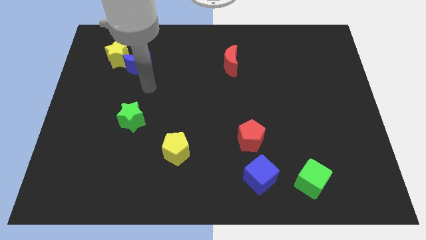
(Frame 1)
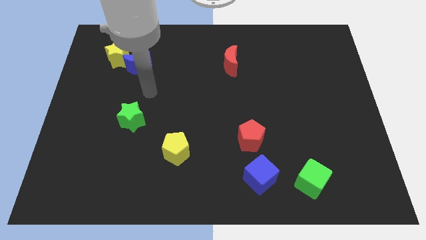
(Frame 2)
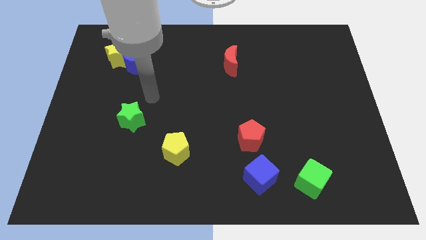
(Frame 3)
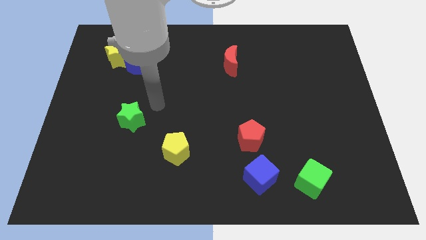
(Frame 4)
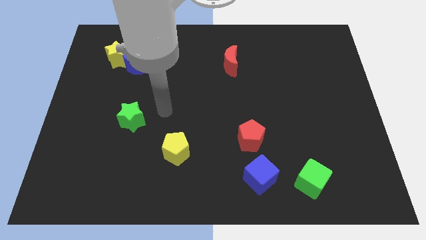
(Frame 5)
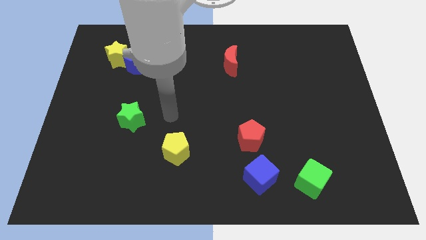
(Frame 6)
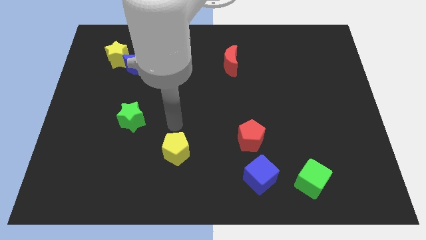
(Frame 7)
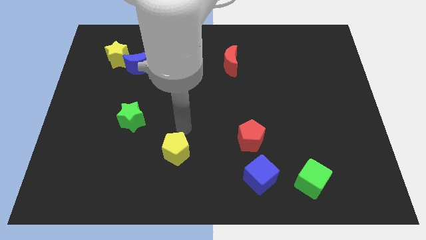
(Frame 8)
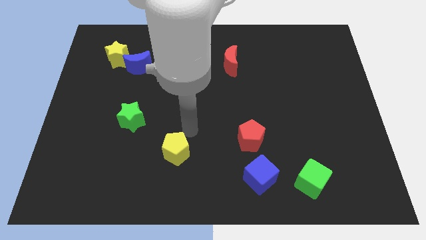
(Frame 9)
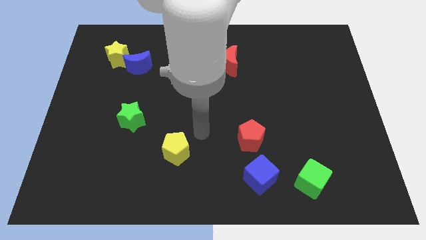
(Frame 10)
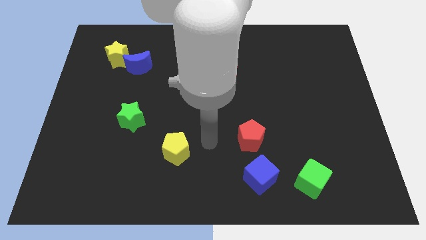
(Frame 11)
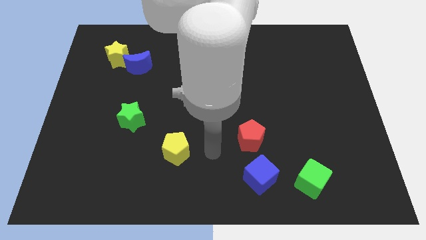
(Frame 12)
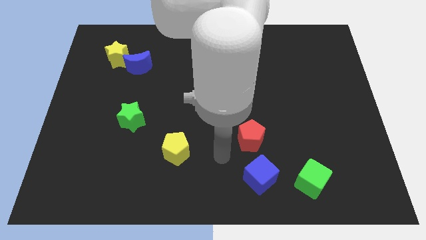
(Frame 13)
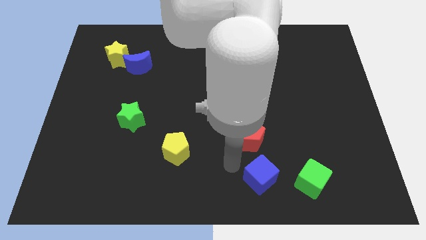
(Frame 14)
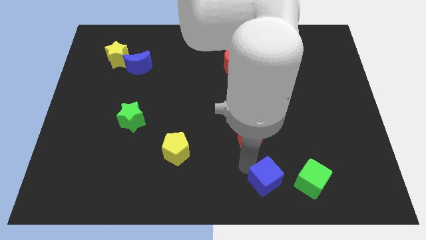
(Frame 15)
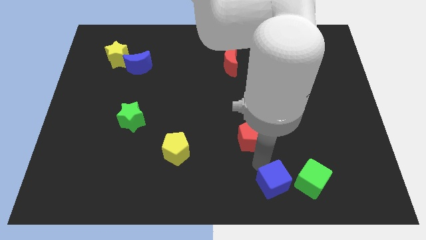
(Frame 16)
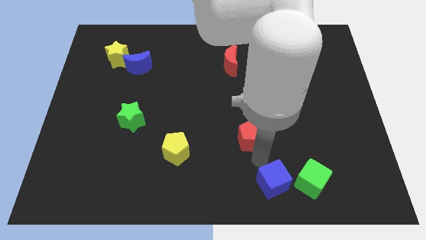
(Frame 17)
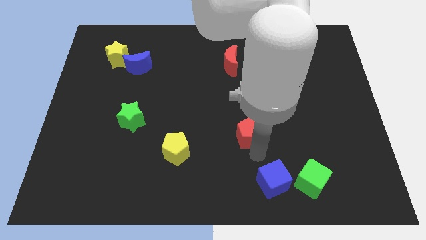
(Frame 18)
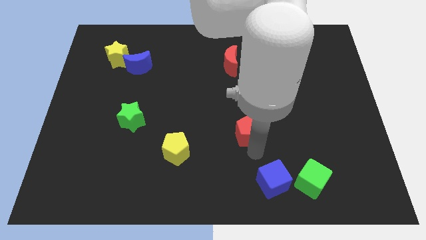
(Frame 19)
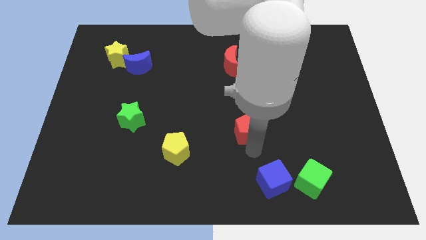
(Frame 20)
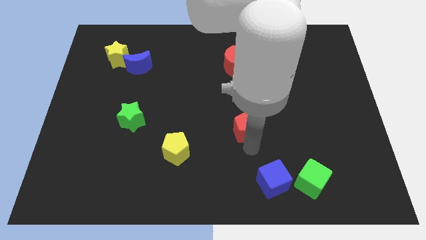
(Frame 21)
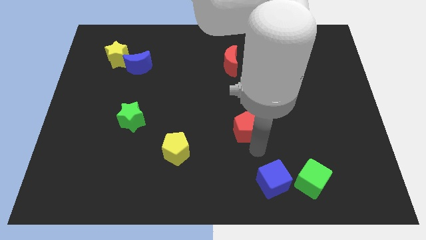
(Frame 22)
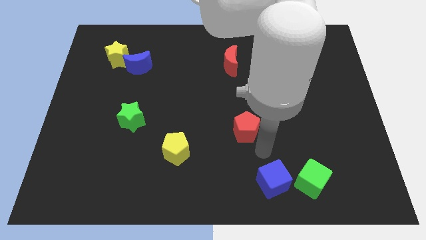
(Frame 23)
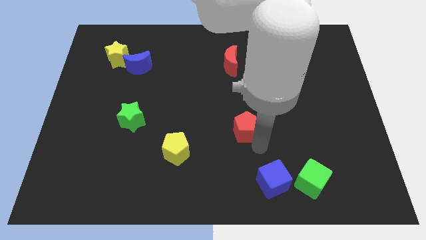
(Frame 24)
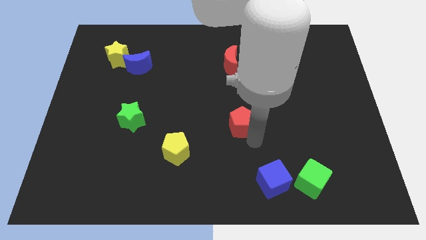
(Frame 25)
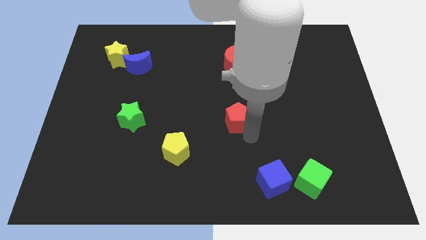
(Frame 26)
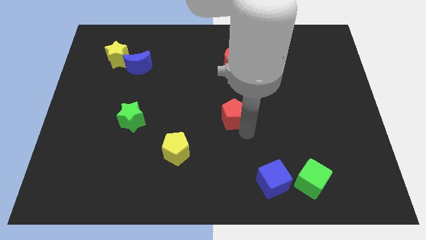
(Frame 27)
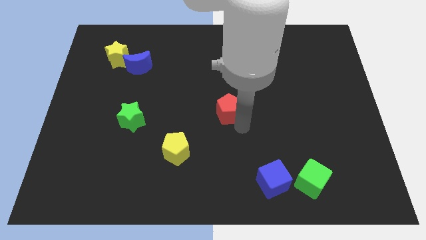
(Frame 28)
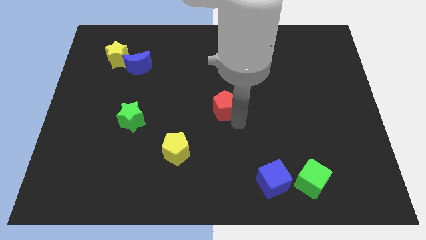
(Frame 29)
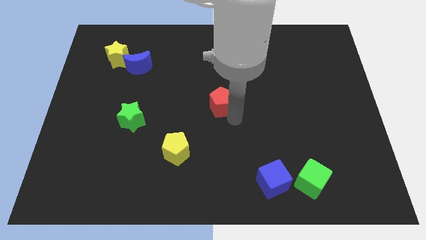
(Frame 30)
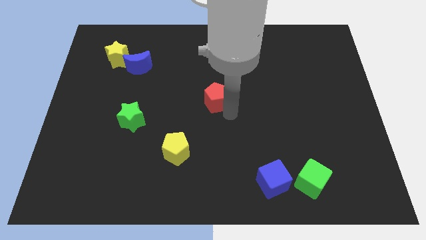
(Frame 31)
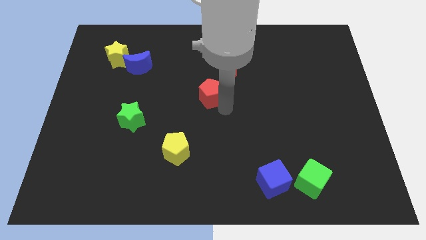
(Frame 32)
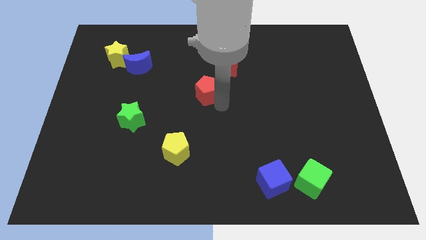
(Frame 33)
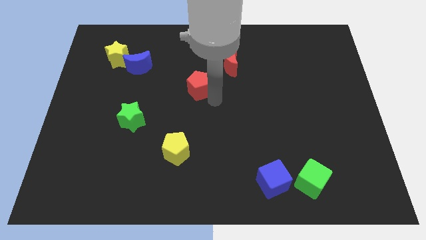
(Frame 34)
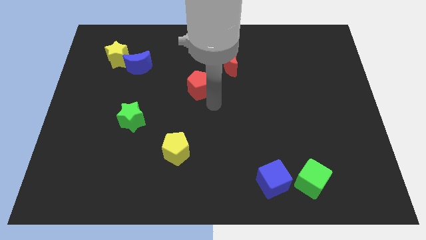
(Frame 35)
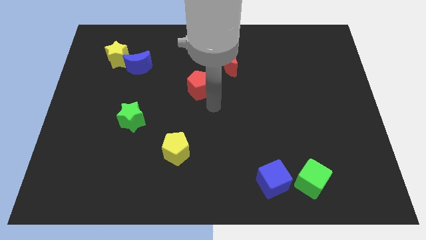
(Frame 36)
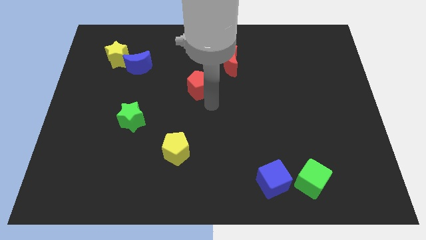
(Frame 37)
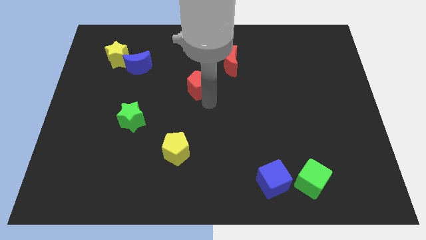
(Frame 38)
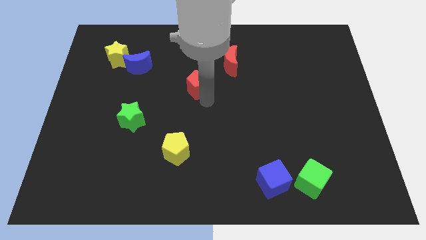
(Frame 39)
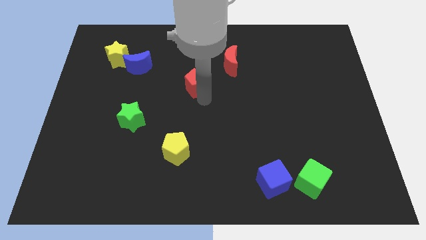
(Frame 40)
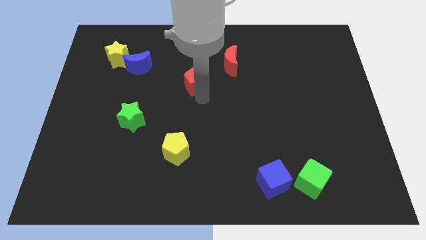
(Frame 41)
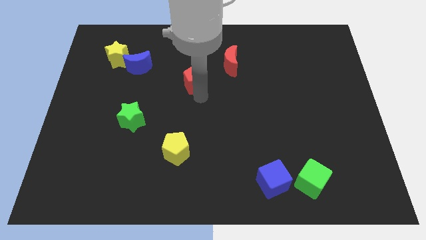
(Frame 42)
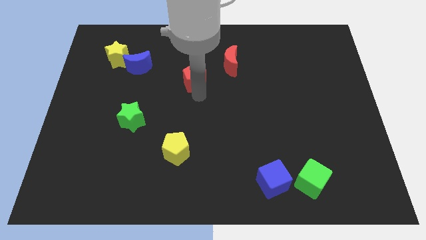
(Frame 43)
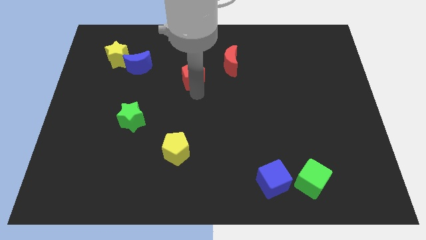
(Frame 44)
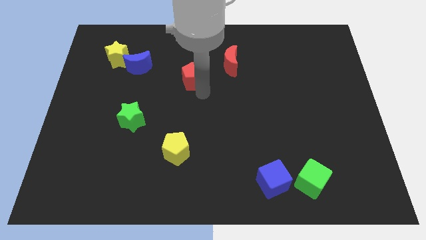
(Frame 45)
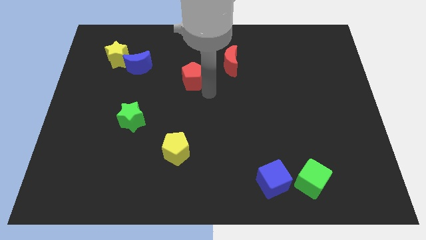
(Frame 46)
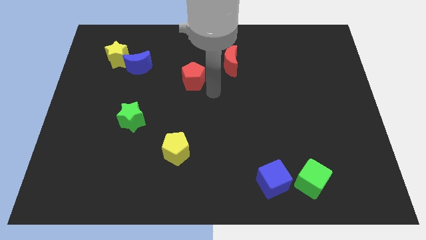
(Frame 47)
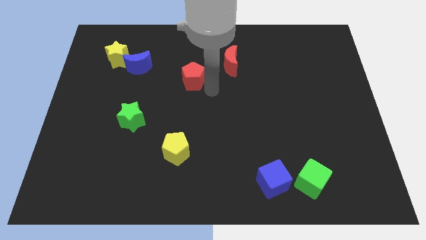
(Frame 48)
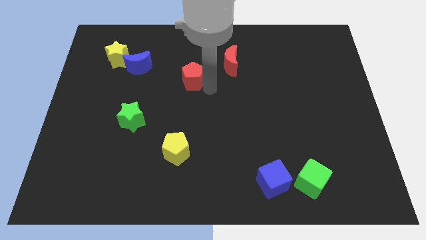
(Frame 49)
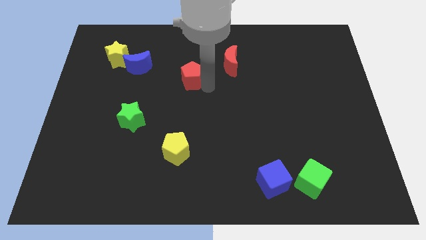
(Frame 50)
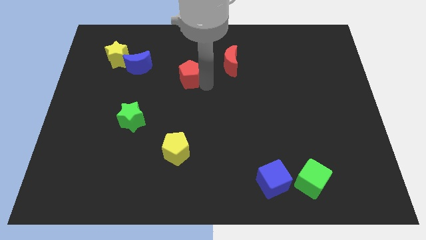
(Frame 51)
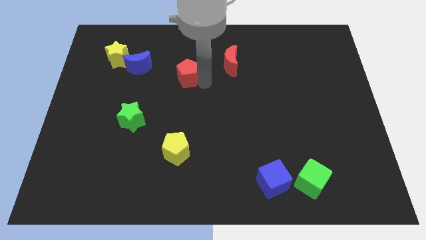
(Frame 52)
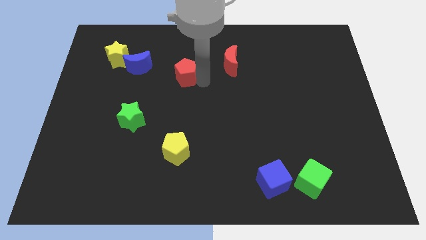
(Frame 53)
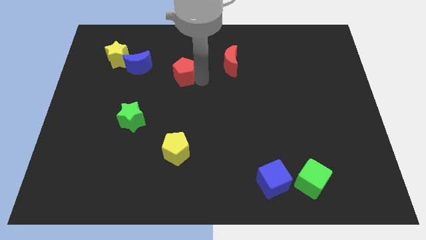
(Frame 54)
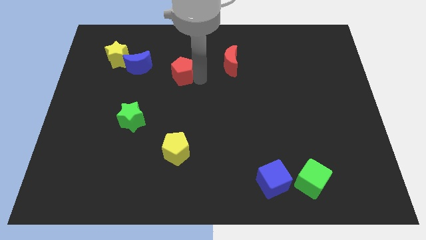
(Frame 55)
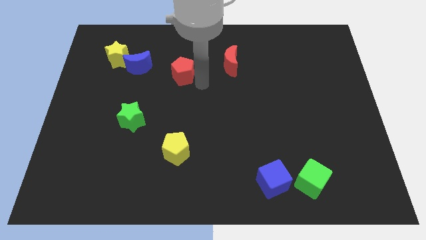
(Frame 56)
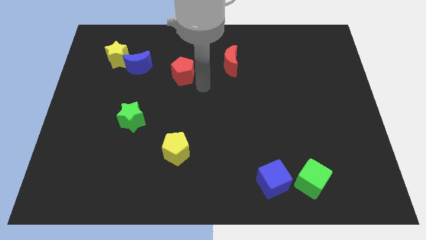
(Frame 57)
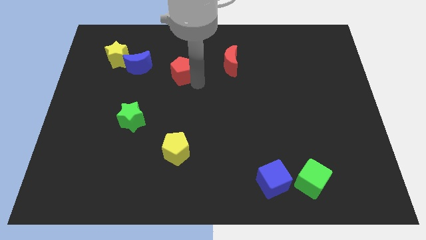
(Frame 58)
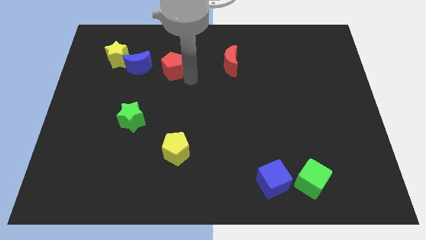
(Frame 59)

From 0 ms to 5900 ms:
move the red pentagon right of the yellow star

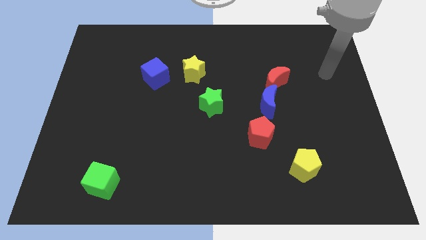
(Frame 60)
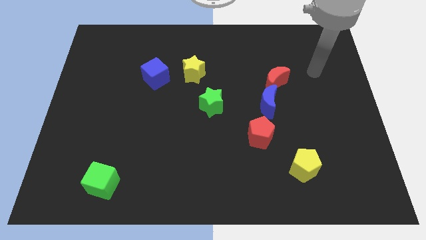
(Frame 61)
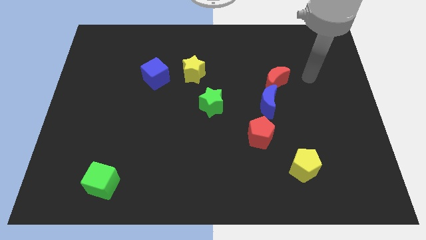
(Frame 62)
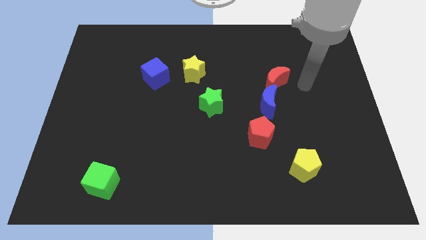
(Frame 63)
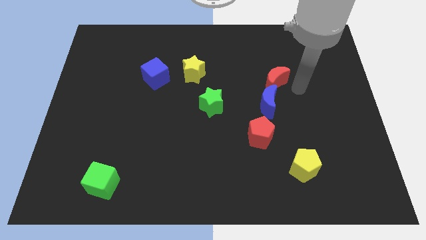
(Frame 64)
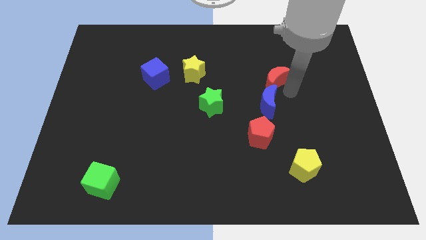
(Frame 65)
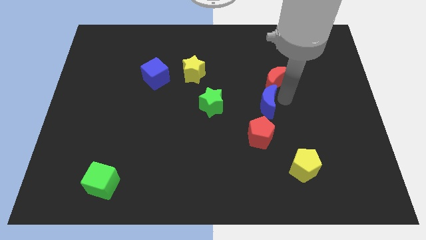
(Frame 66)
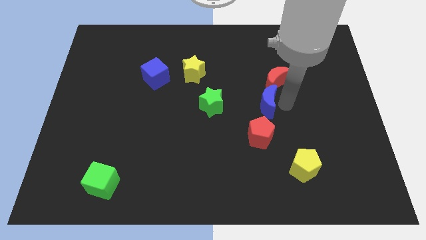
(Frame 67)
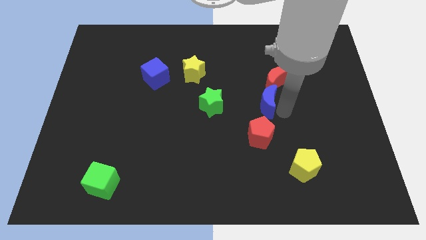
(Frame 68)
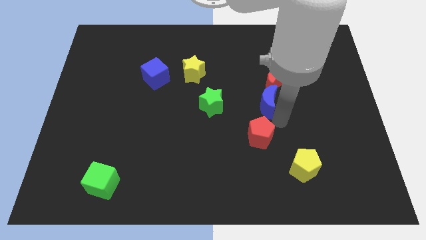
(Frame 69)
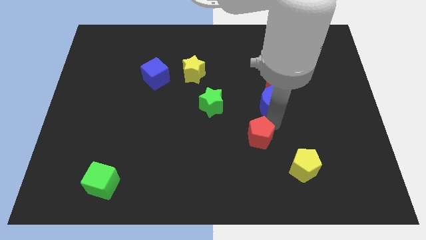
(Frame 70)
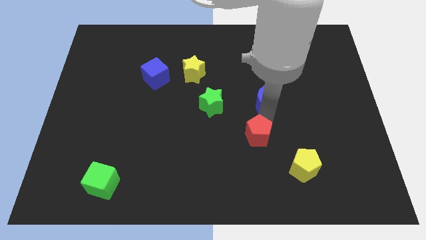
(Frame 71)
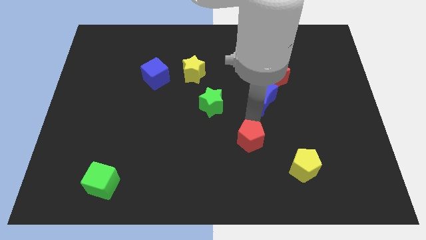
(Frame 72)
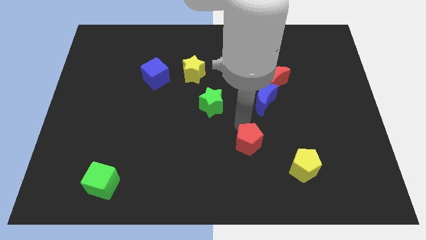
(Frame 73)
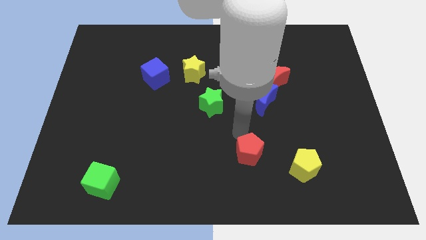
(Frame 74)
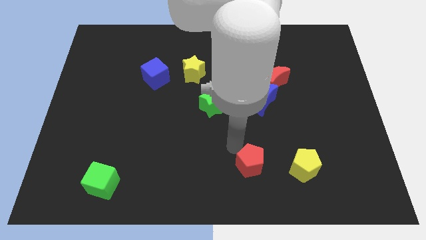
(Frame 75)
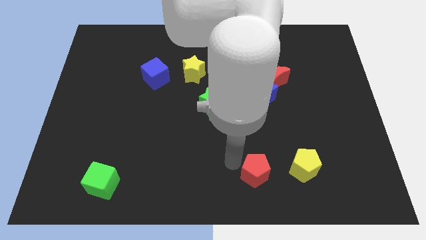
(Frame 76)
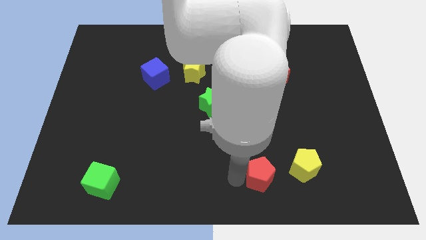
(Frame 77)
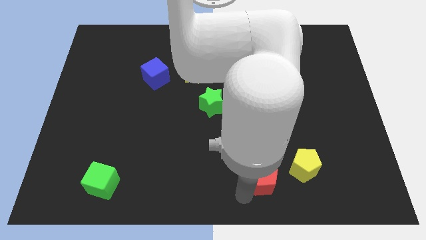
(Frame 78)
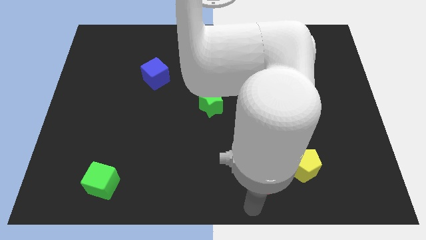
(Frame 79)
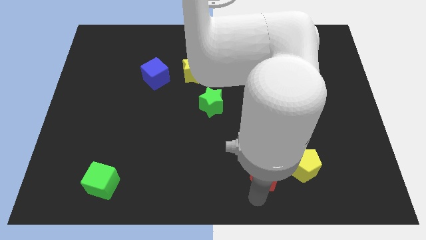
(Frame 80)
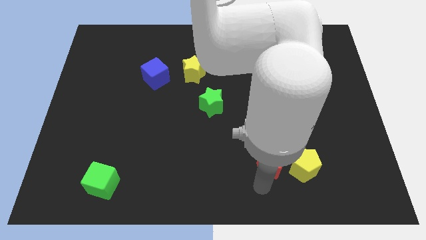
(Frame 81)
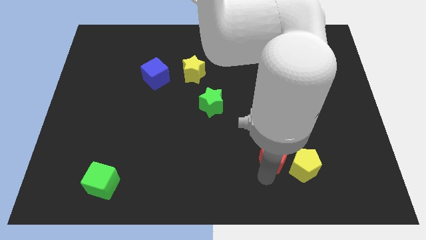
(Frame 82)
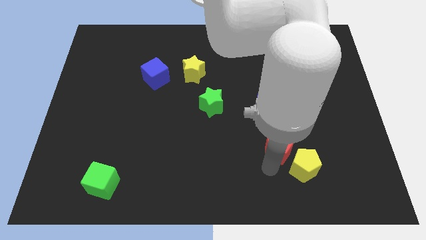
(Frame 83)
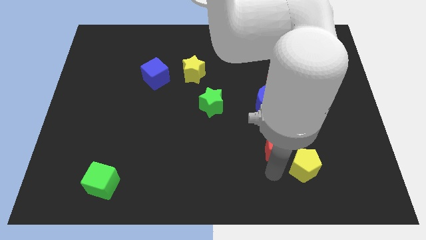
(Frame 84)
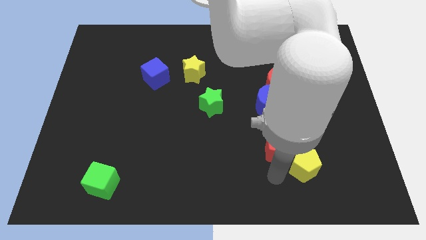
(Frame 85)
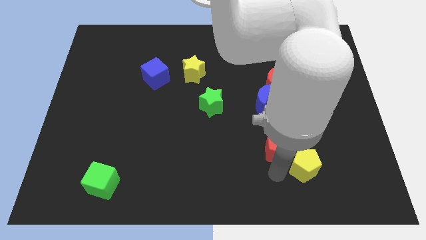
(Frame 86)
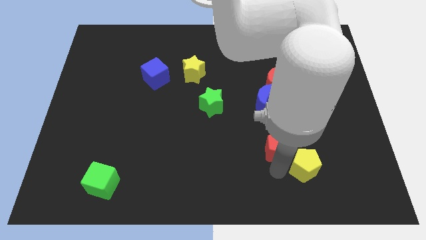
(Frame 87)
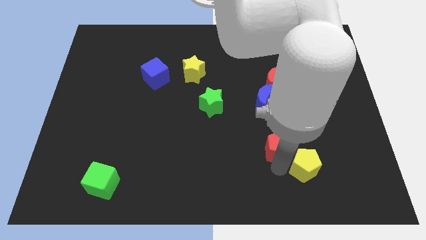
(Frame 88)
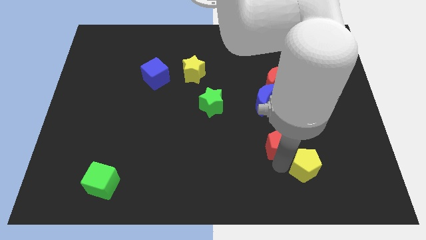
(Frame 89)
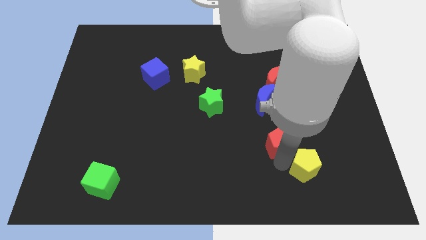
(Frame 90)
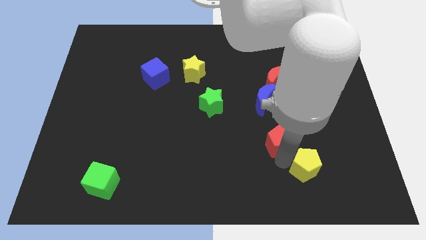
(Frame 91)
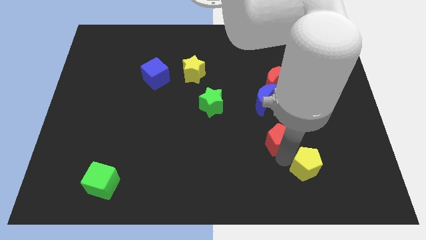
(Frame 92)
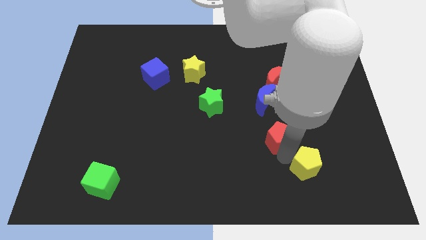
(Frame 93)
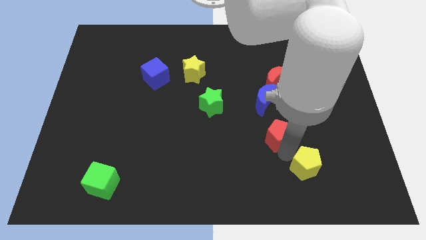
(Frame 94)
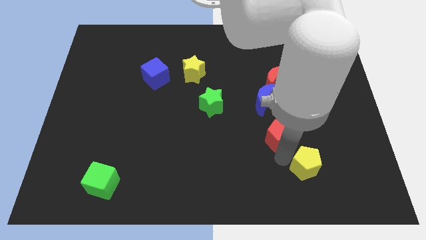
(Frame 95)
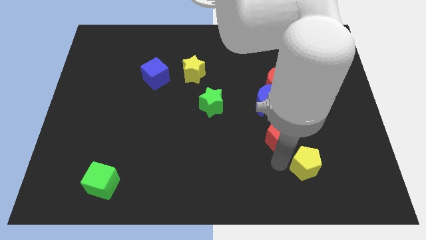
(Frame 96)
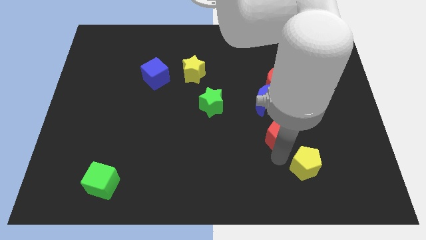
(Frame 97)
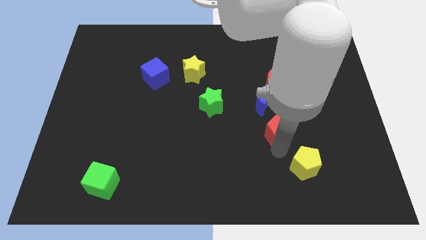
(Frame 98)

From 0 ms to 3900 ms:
put the red pentagon to the bottom of the red moon
